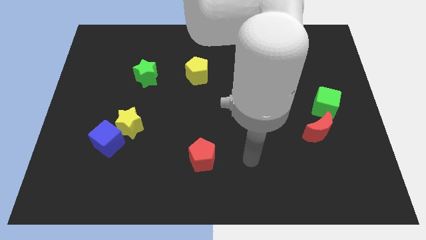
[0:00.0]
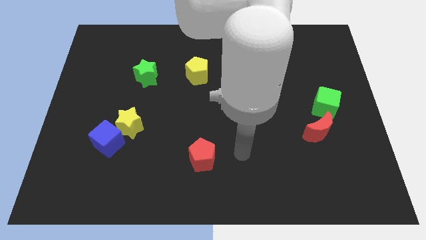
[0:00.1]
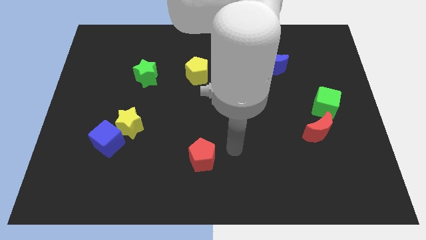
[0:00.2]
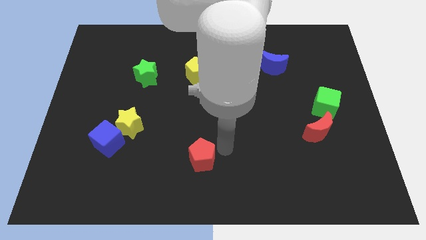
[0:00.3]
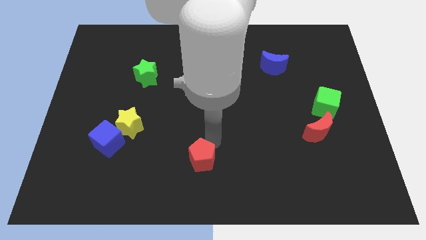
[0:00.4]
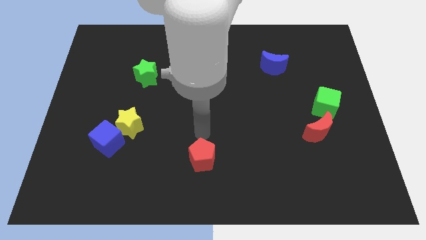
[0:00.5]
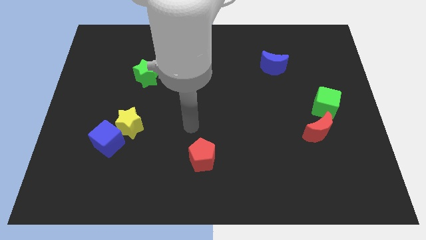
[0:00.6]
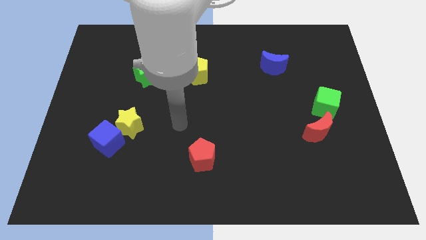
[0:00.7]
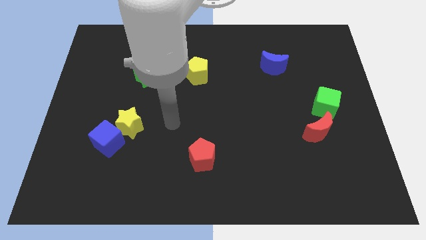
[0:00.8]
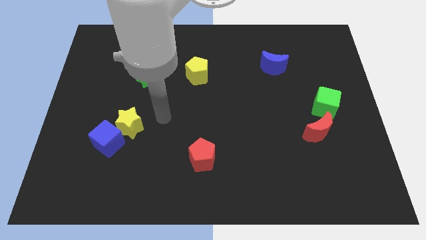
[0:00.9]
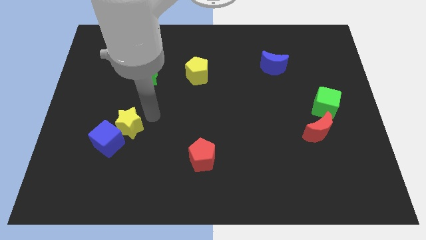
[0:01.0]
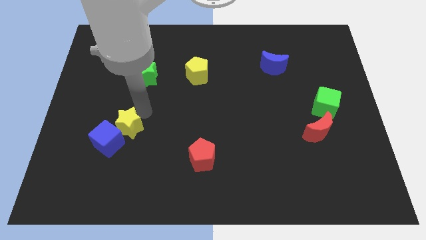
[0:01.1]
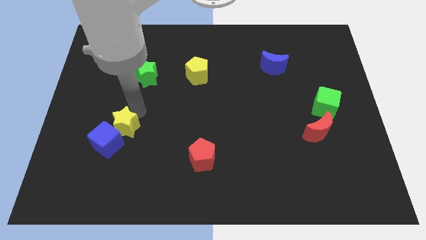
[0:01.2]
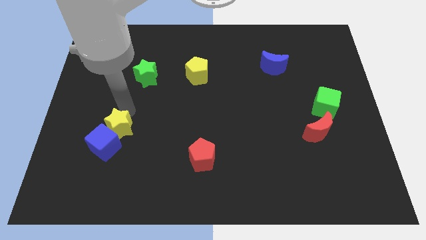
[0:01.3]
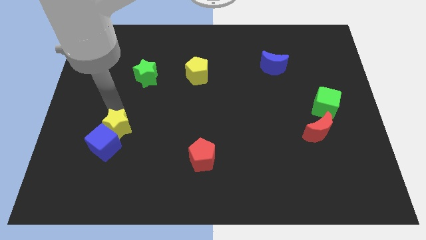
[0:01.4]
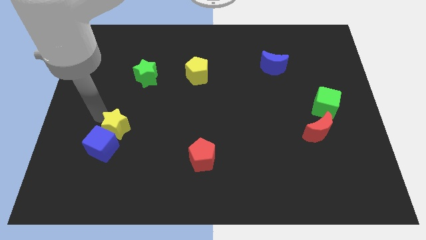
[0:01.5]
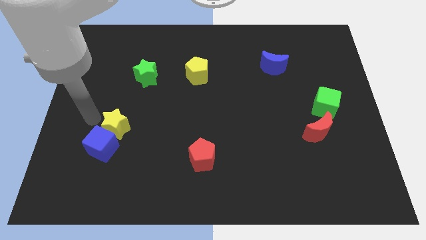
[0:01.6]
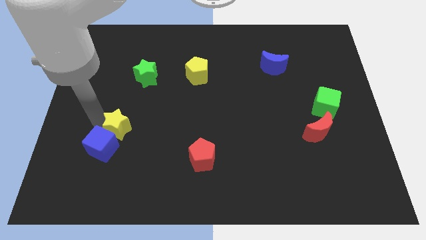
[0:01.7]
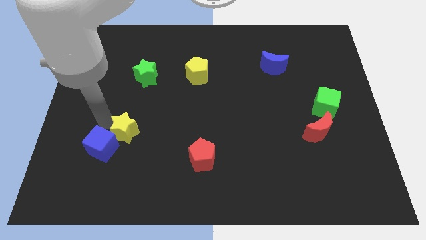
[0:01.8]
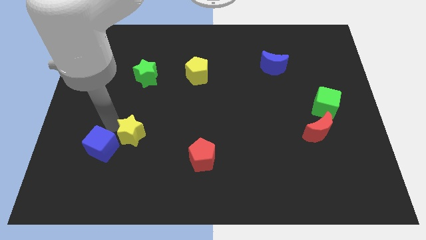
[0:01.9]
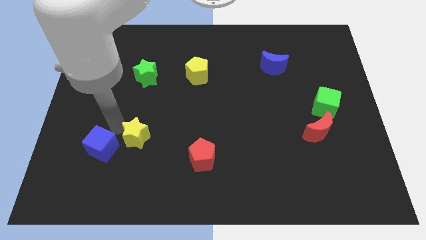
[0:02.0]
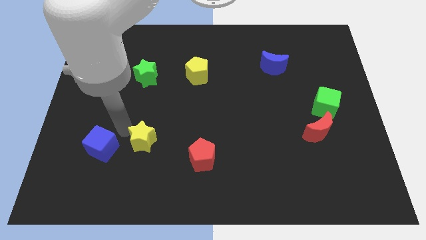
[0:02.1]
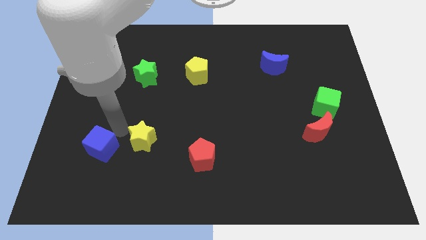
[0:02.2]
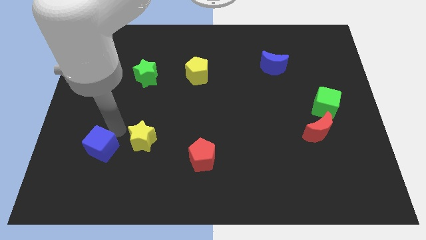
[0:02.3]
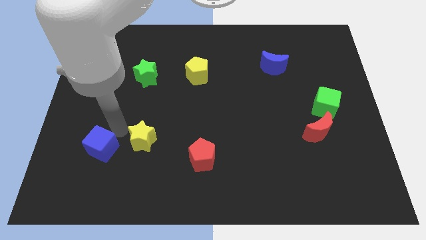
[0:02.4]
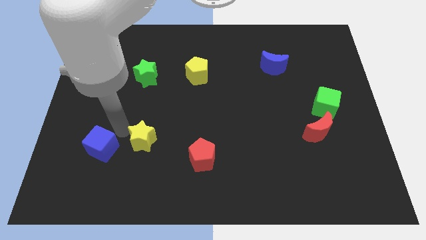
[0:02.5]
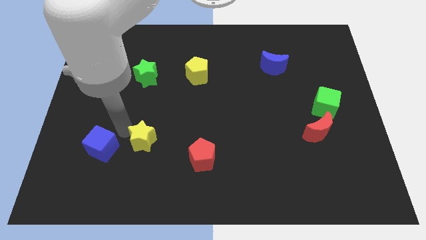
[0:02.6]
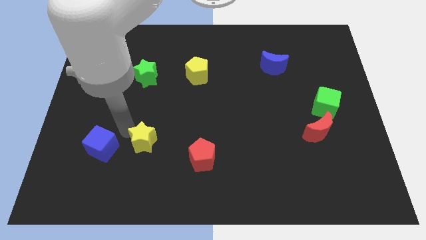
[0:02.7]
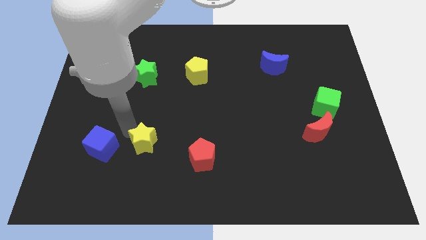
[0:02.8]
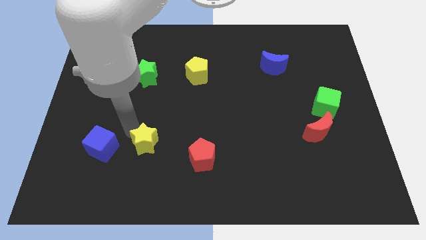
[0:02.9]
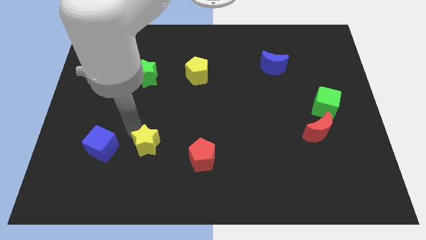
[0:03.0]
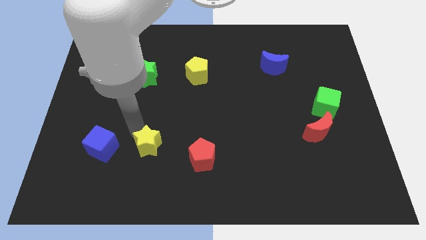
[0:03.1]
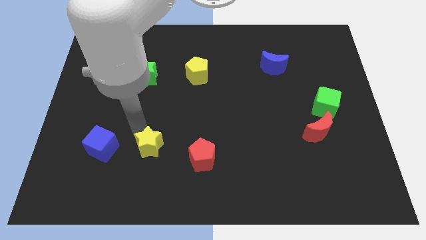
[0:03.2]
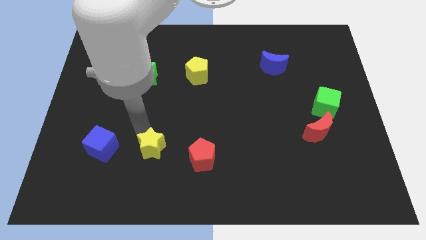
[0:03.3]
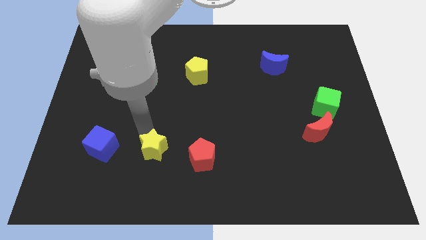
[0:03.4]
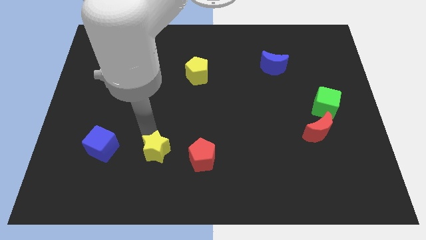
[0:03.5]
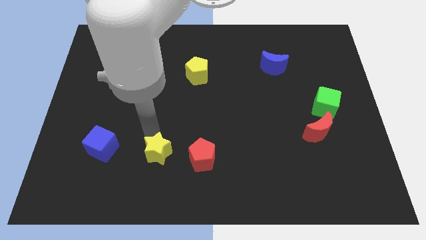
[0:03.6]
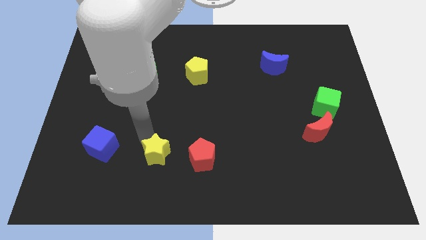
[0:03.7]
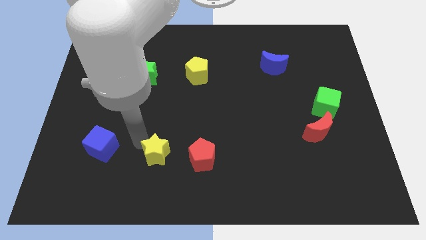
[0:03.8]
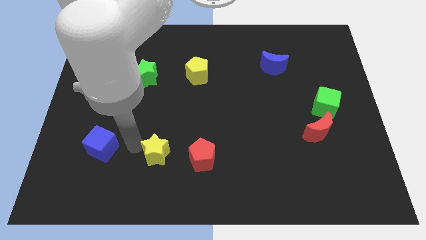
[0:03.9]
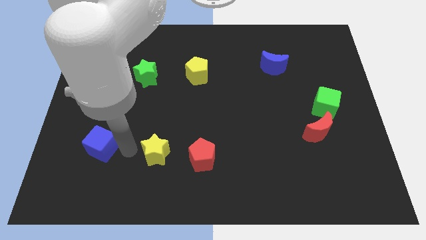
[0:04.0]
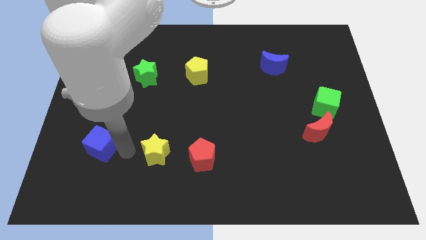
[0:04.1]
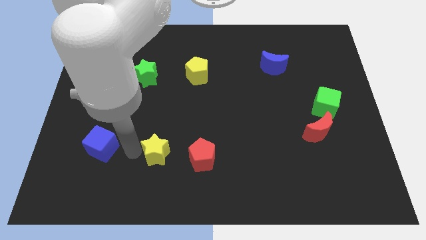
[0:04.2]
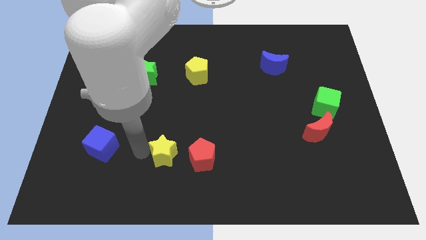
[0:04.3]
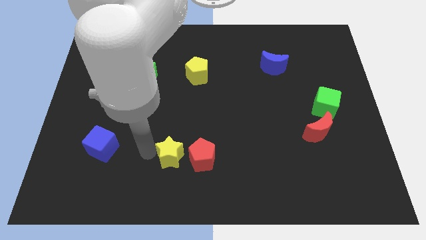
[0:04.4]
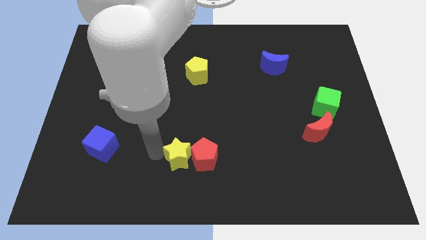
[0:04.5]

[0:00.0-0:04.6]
move the yellow star close to the red pentagon

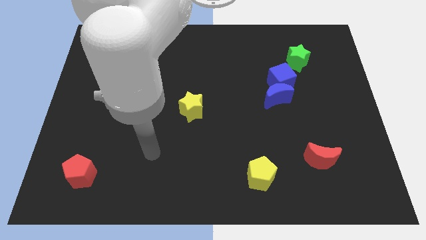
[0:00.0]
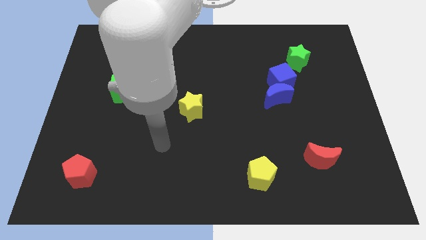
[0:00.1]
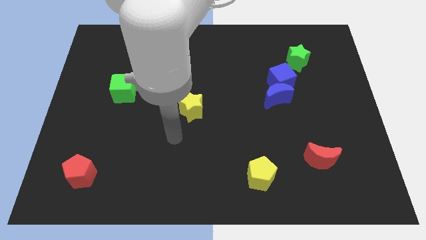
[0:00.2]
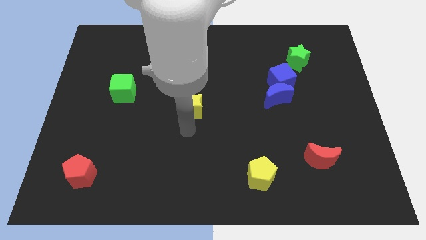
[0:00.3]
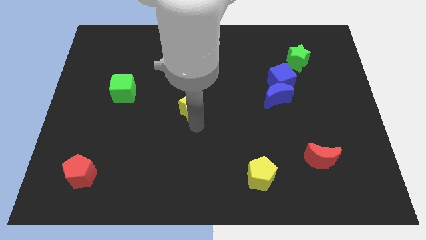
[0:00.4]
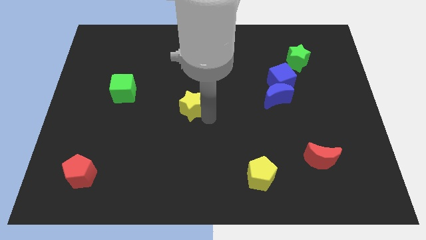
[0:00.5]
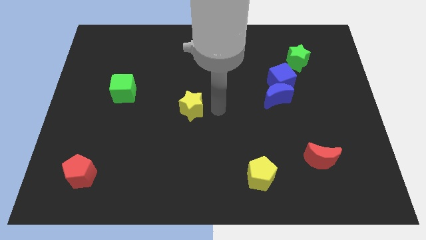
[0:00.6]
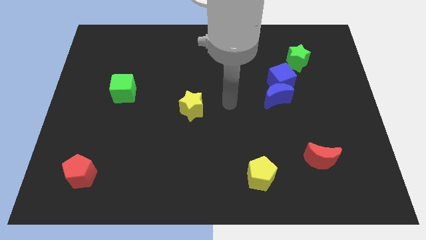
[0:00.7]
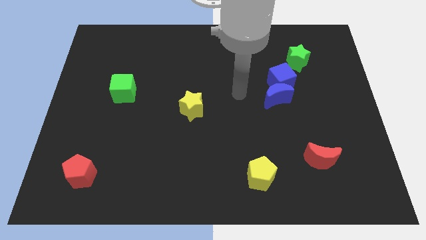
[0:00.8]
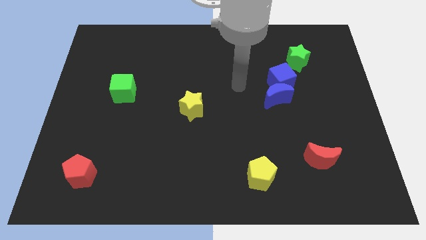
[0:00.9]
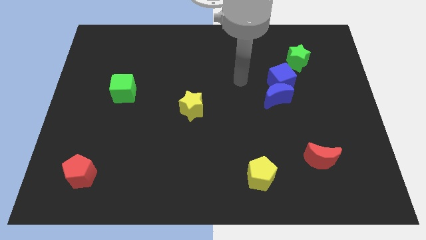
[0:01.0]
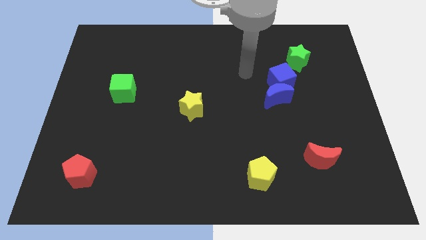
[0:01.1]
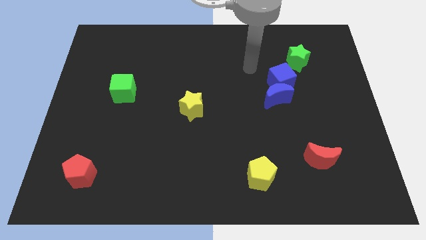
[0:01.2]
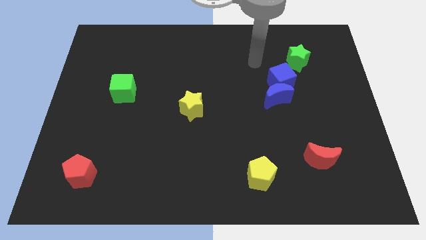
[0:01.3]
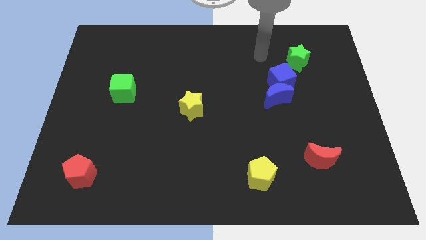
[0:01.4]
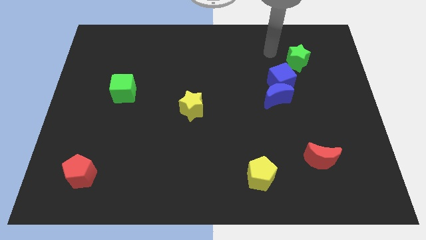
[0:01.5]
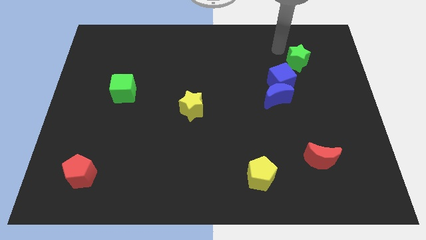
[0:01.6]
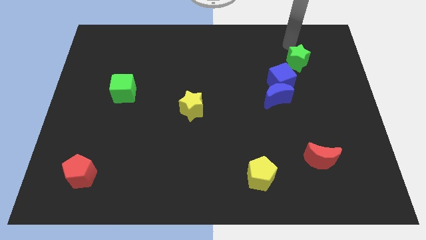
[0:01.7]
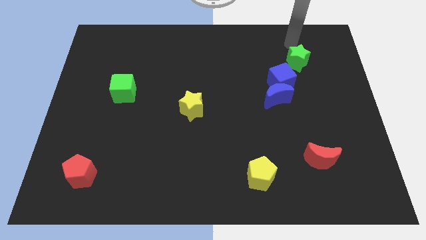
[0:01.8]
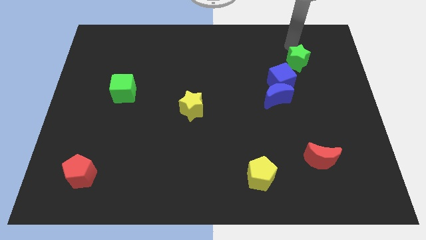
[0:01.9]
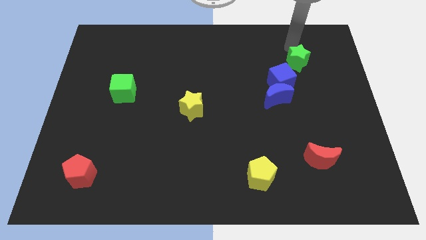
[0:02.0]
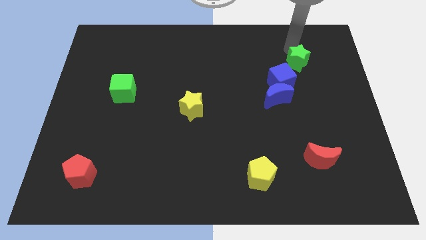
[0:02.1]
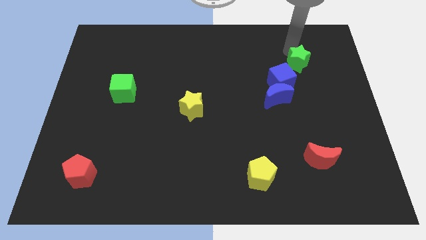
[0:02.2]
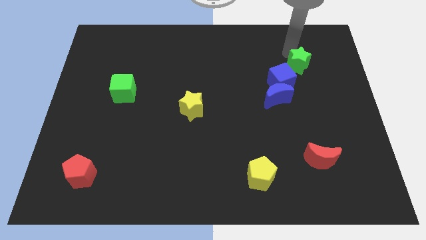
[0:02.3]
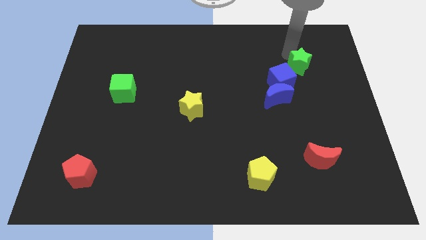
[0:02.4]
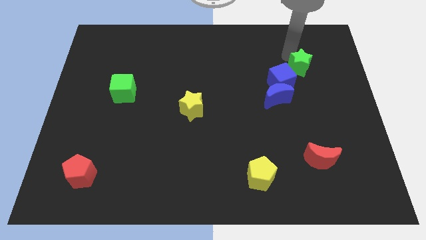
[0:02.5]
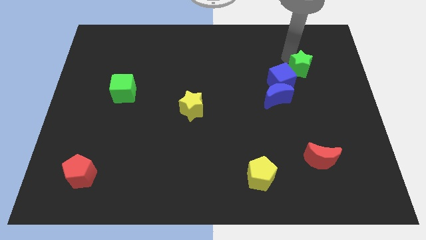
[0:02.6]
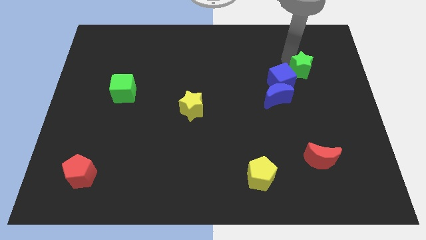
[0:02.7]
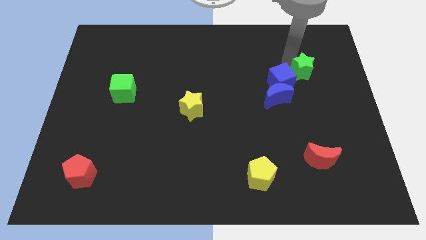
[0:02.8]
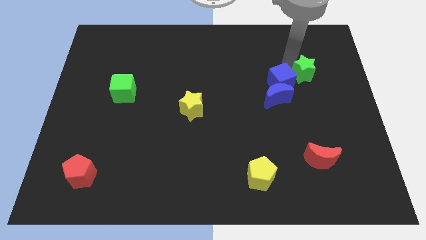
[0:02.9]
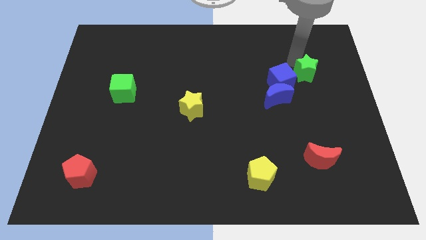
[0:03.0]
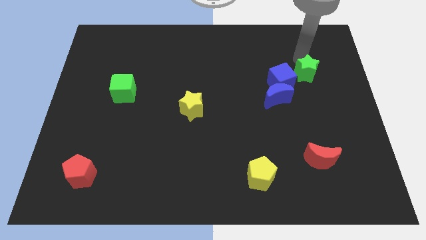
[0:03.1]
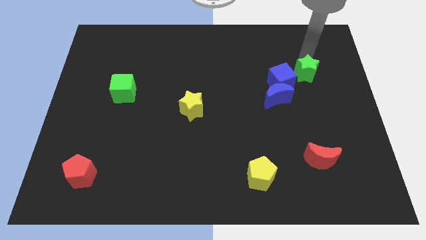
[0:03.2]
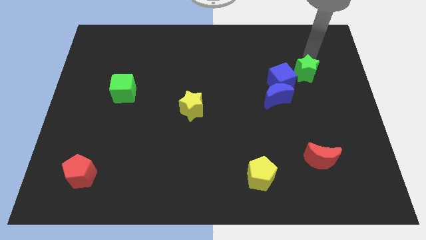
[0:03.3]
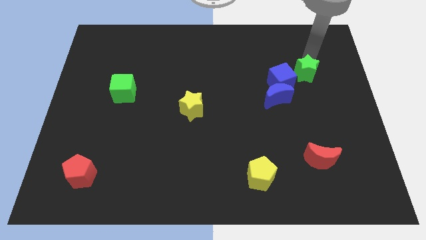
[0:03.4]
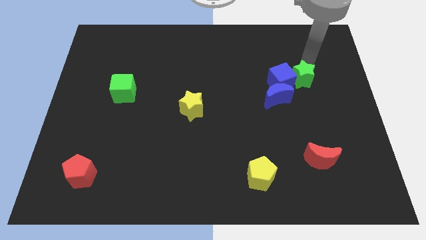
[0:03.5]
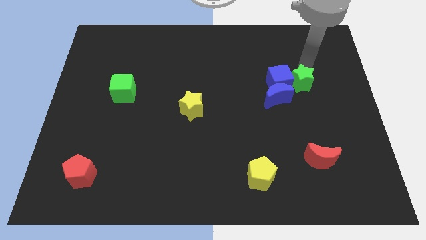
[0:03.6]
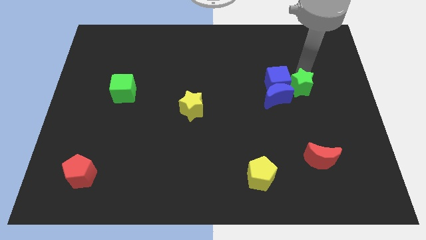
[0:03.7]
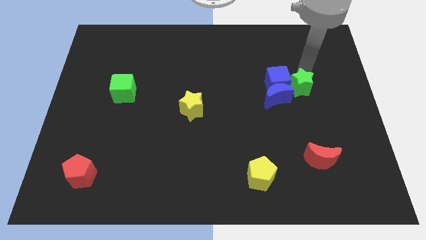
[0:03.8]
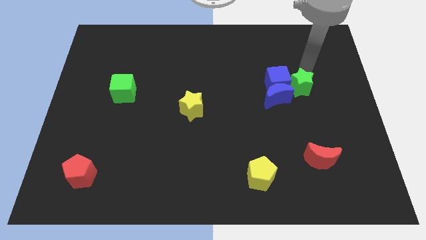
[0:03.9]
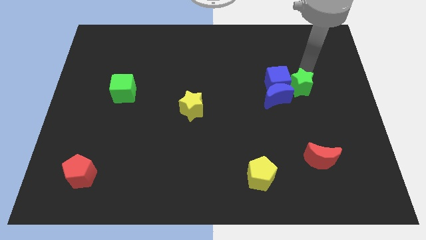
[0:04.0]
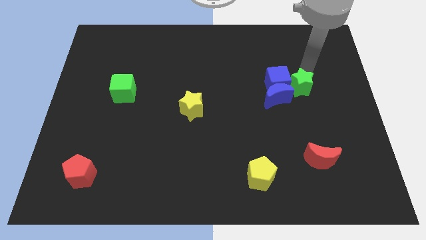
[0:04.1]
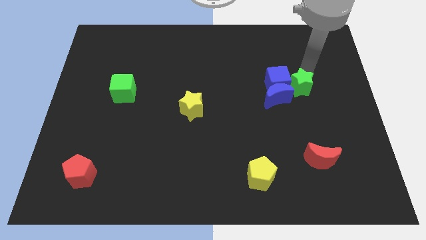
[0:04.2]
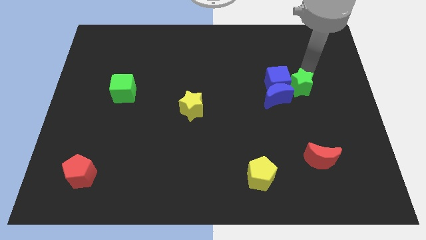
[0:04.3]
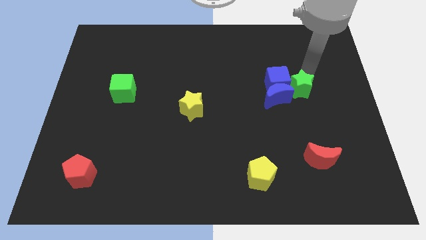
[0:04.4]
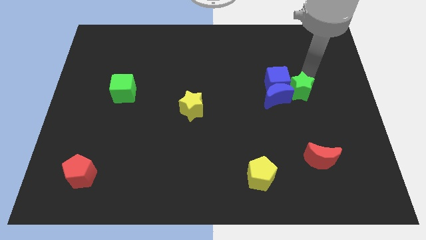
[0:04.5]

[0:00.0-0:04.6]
put the green star to the blue moon
